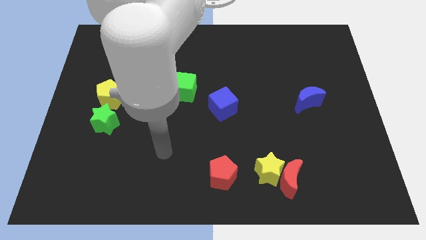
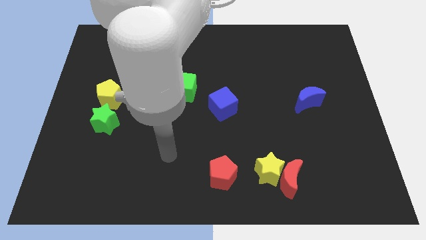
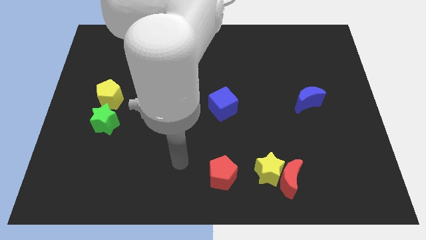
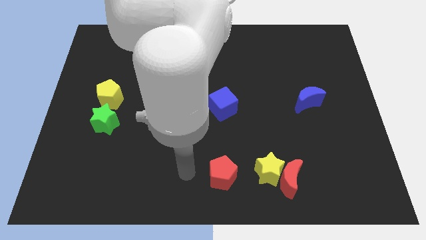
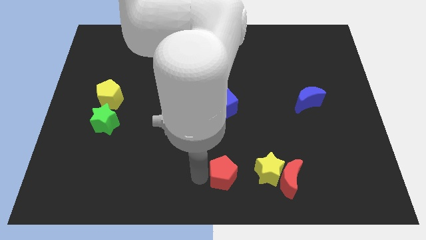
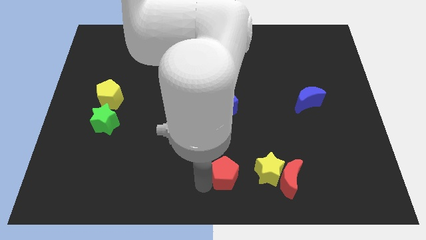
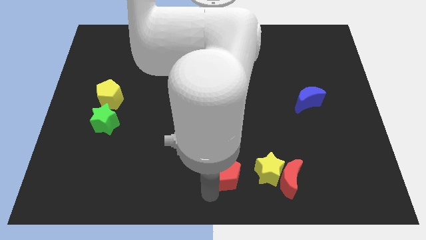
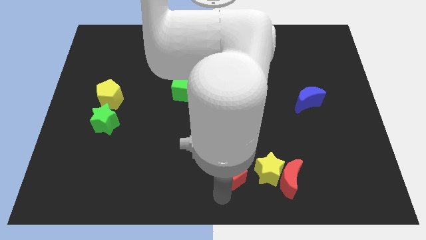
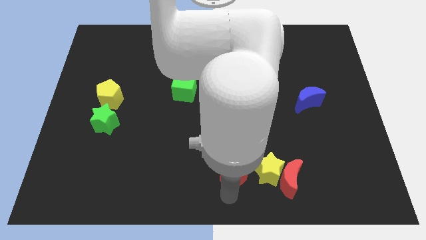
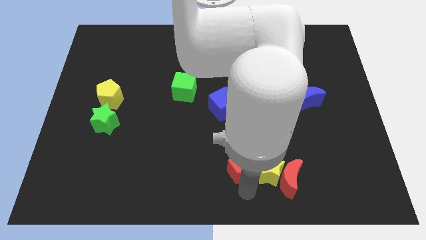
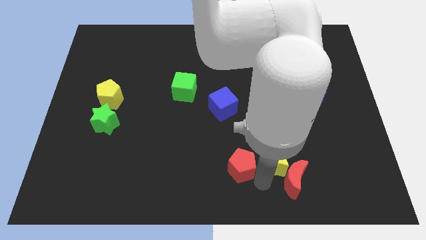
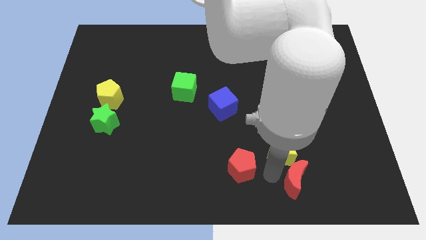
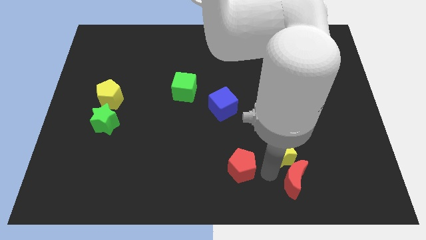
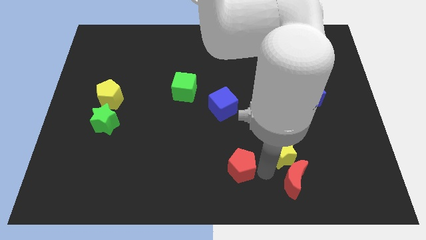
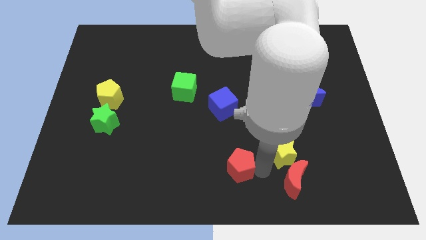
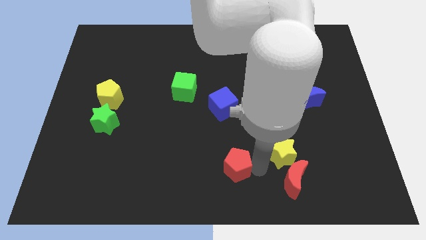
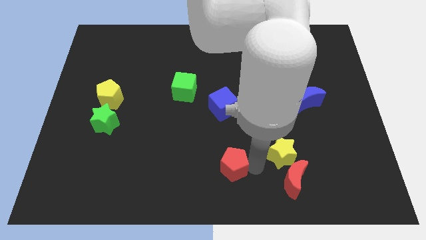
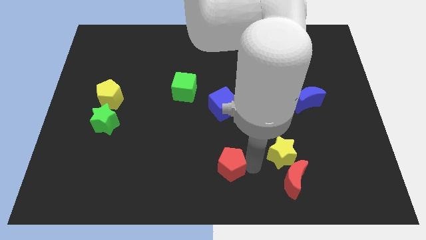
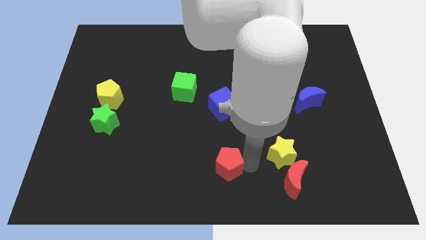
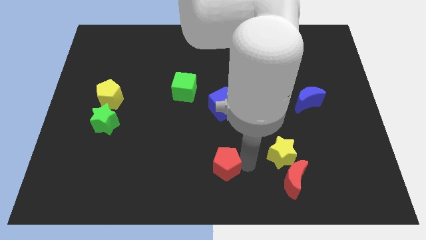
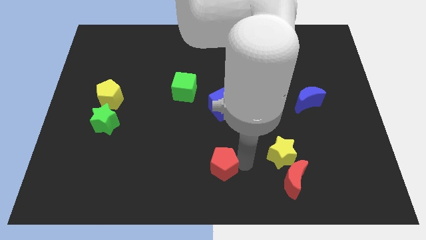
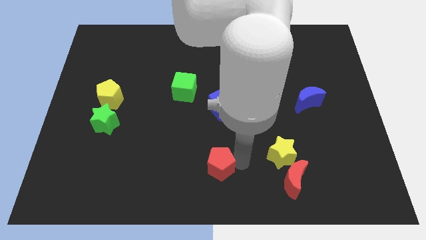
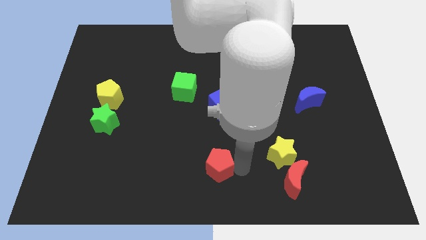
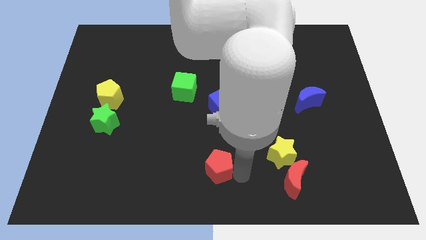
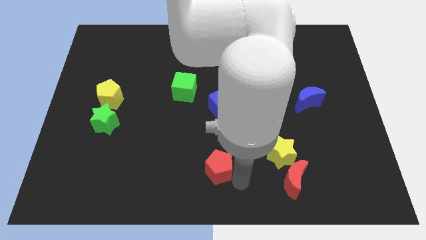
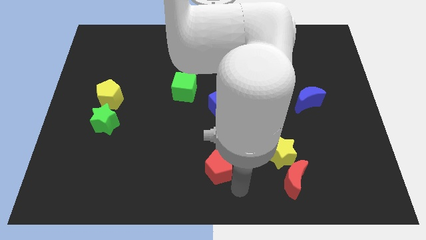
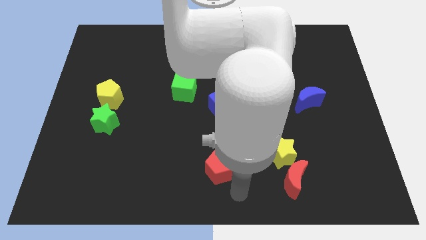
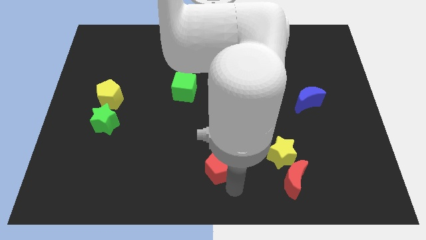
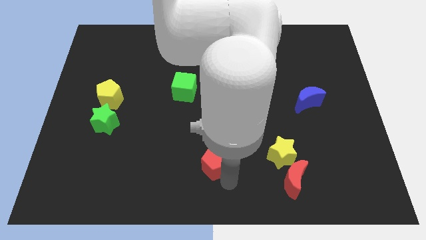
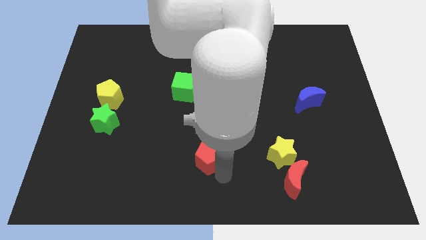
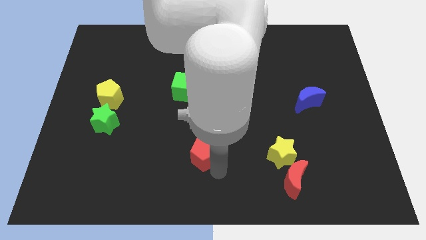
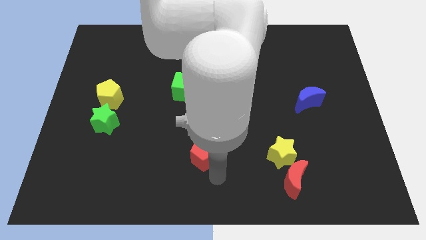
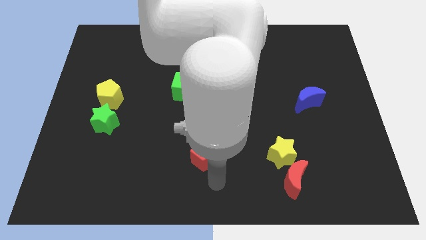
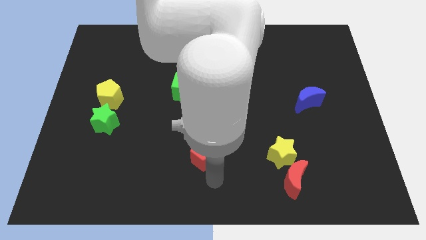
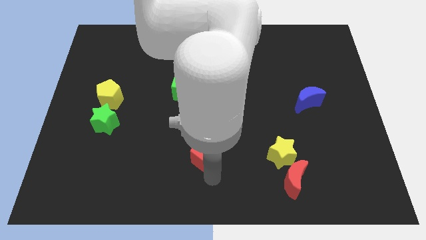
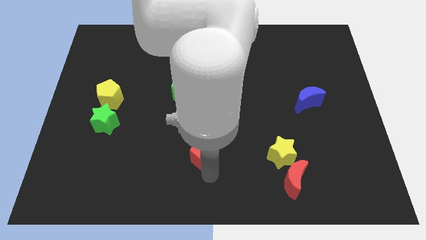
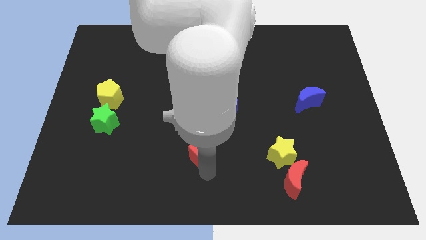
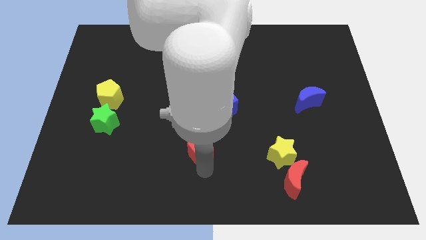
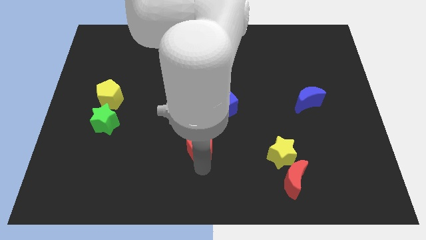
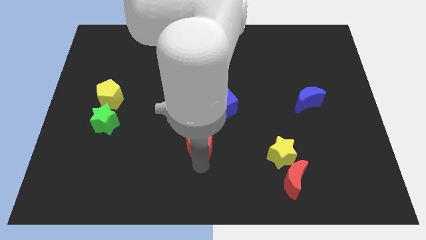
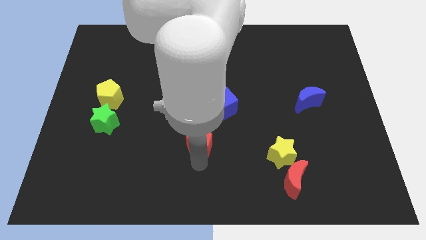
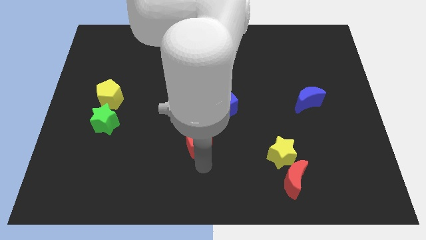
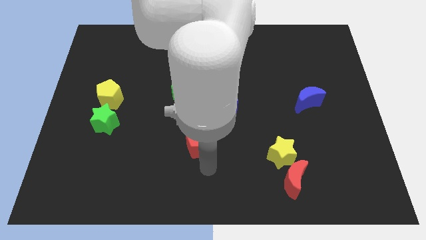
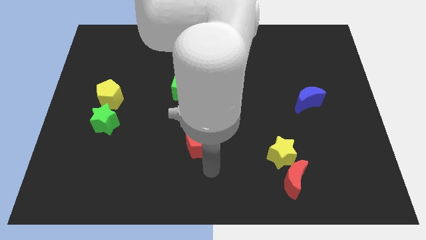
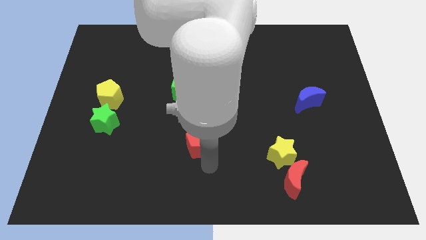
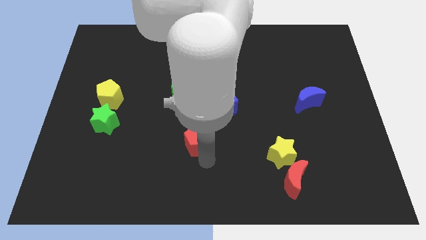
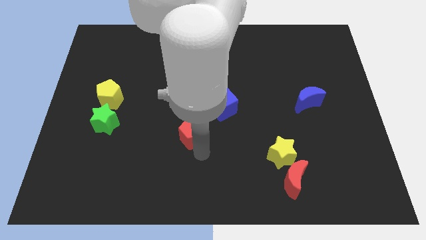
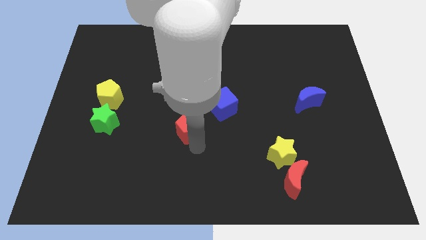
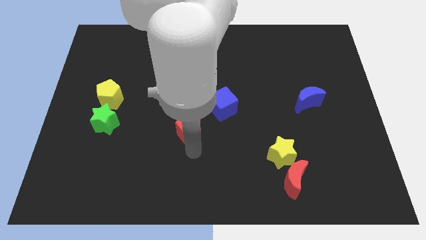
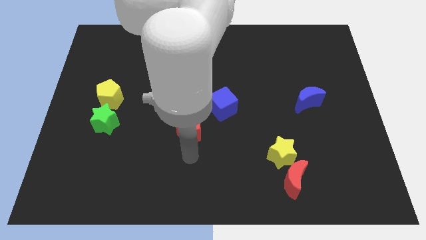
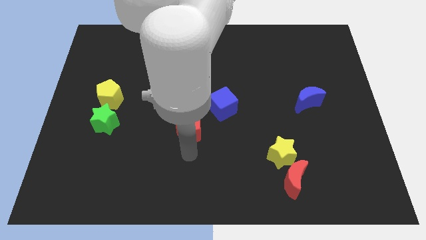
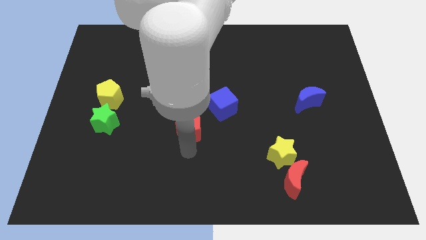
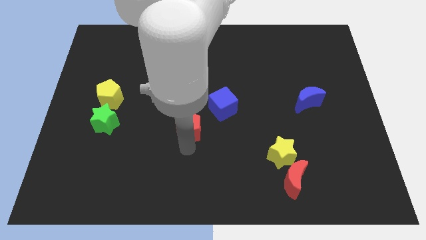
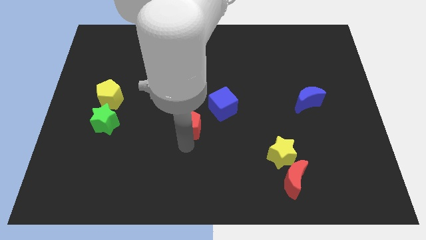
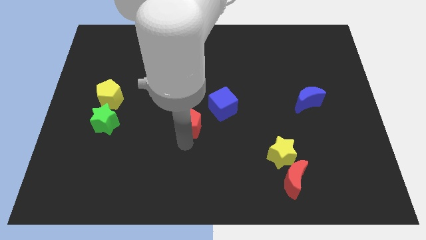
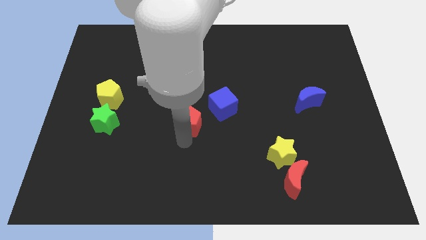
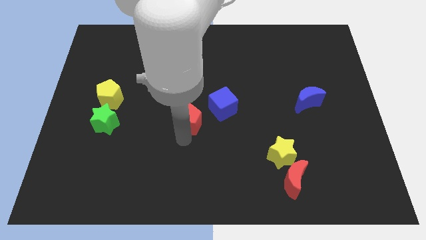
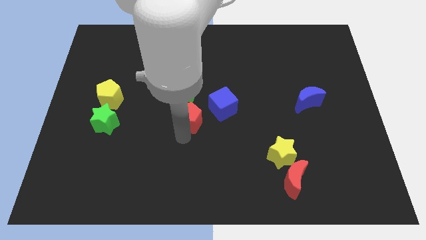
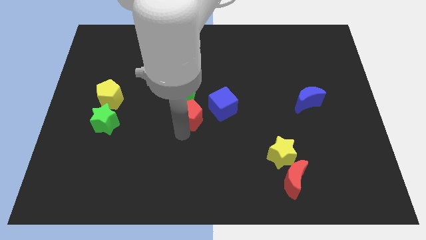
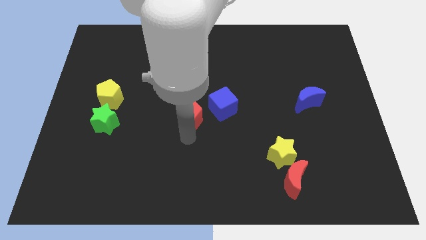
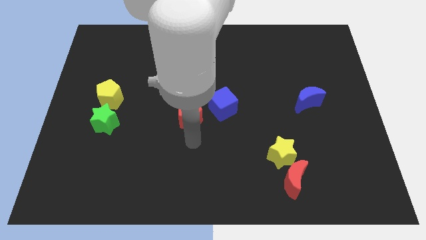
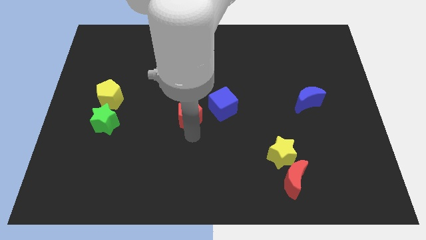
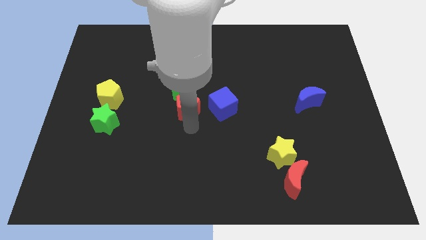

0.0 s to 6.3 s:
push the red pentagon towards the green cube

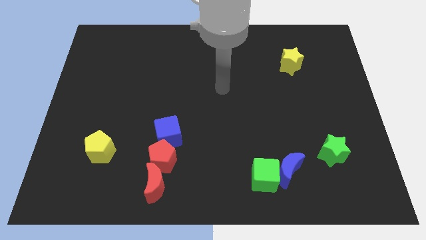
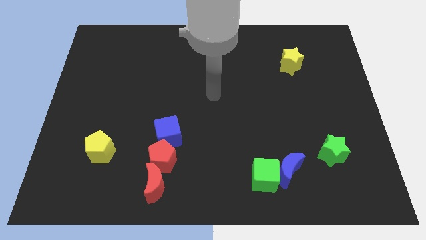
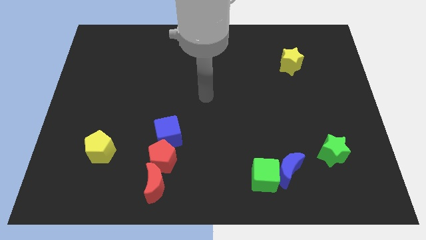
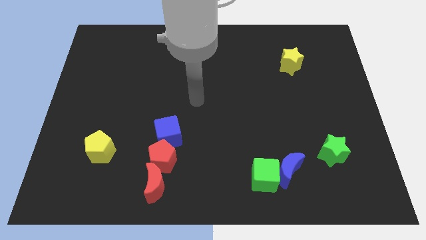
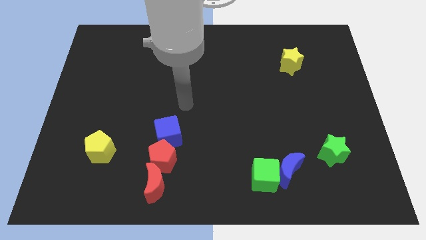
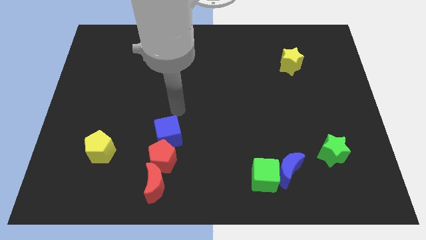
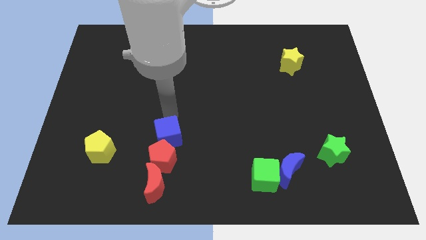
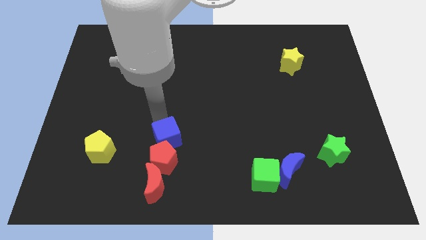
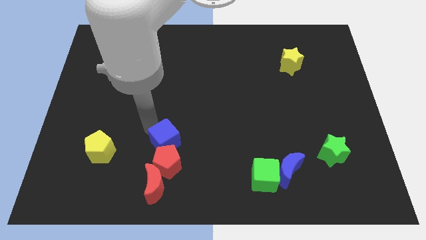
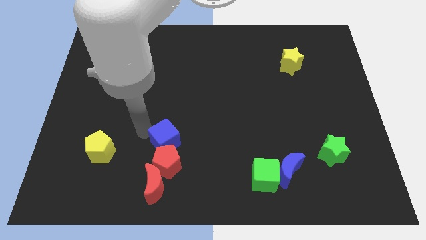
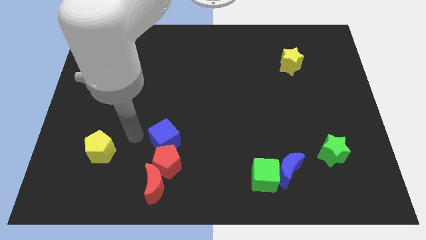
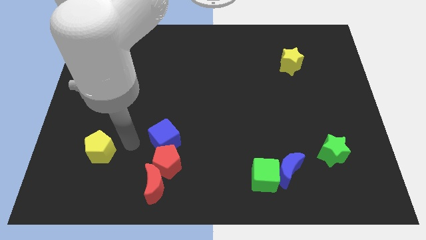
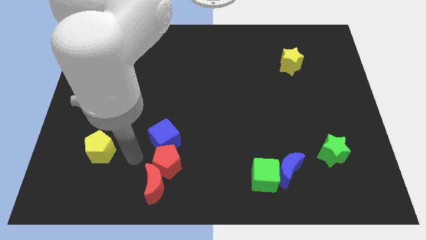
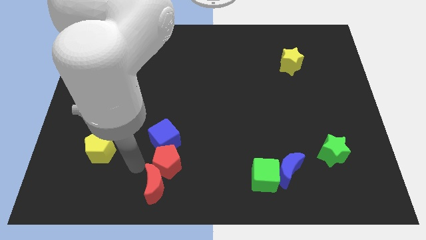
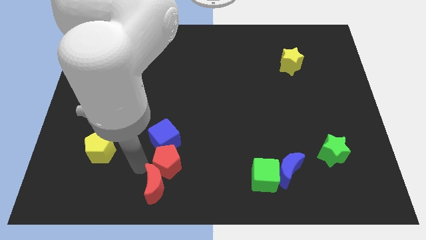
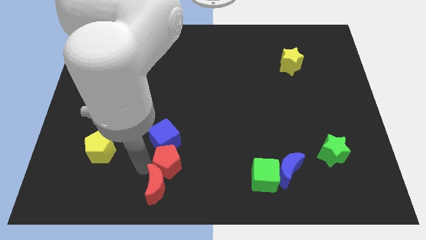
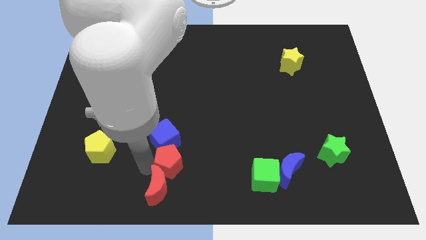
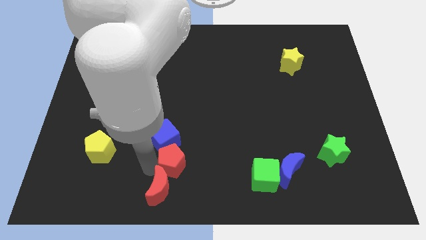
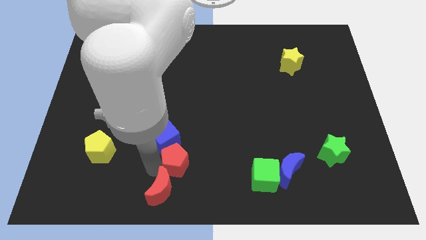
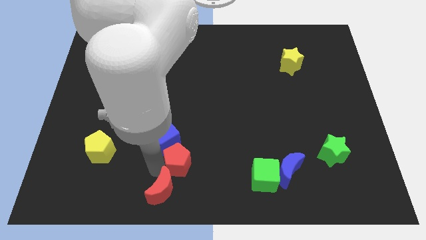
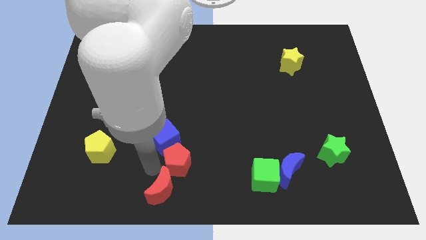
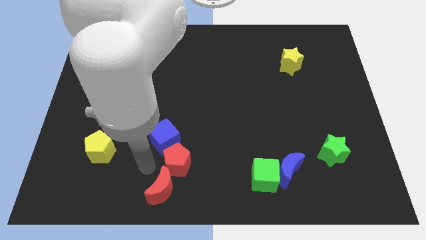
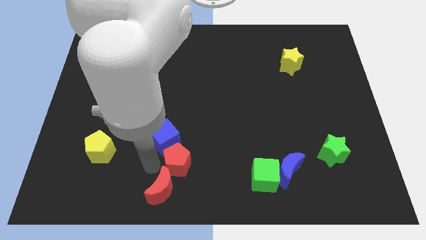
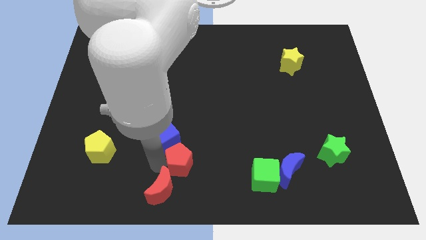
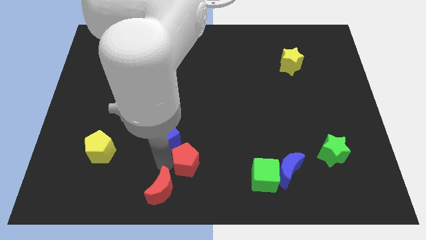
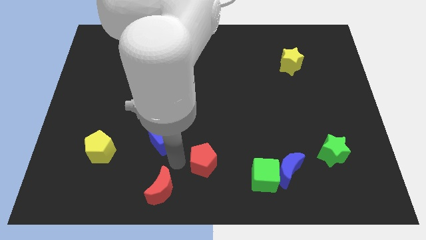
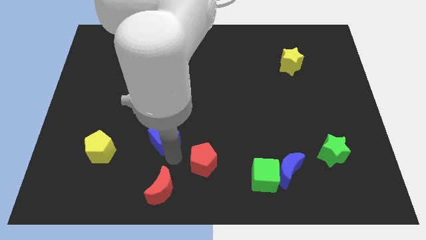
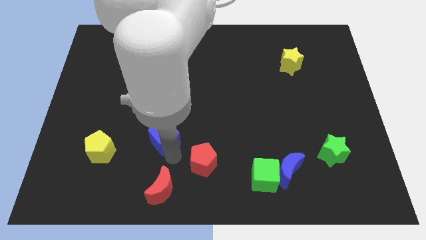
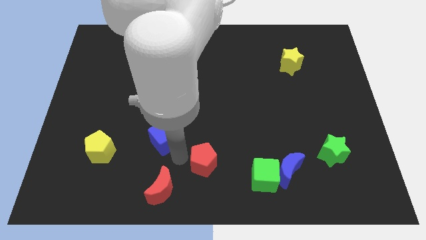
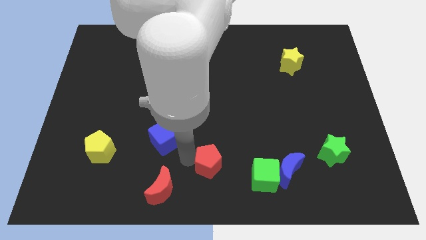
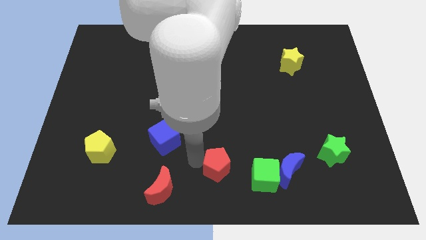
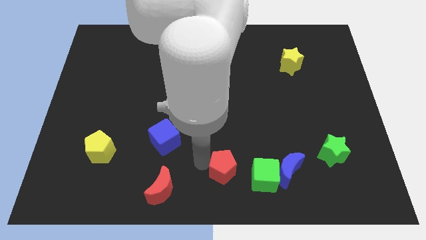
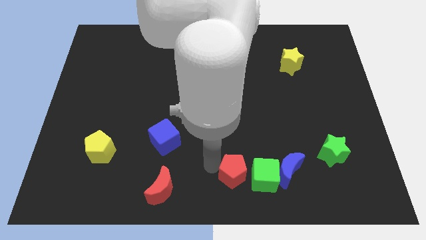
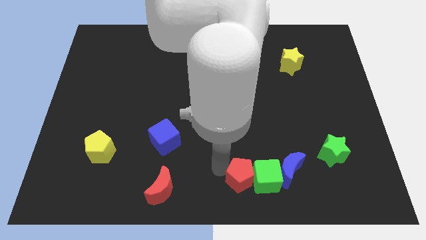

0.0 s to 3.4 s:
move the red pentagon close to the green cube
